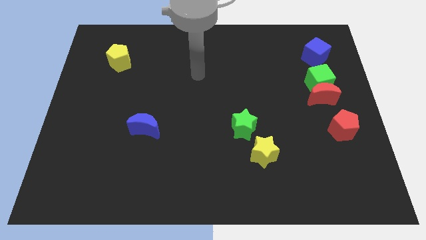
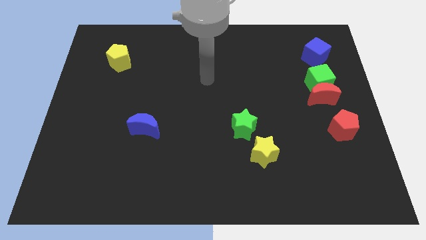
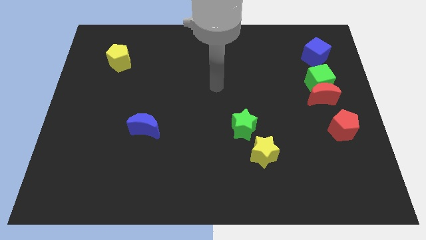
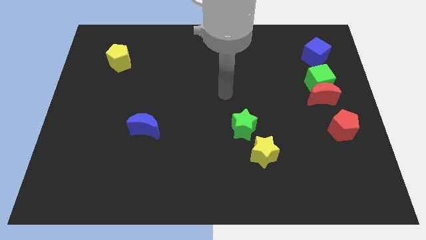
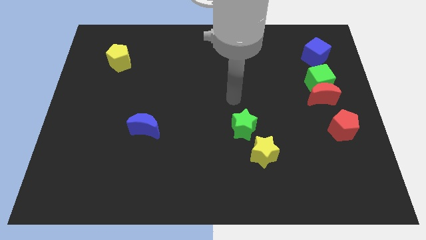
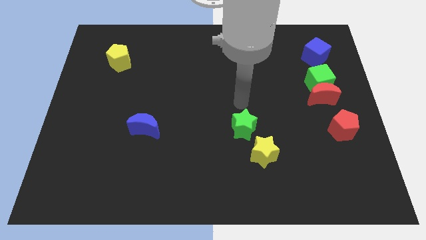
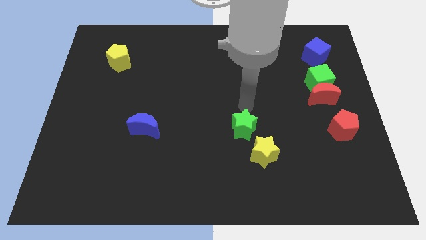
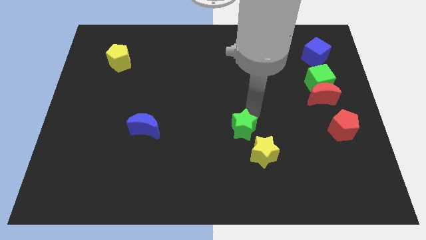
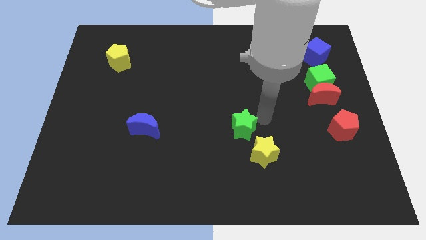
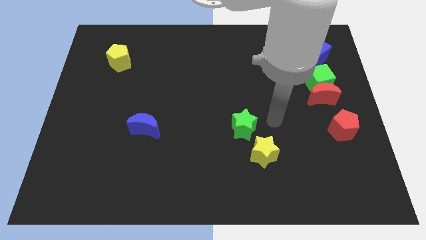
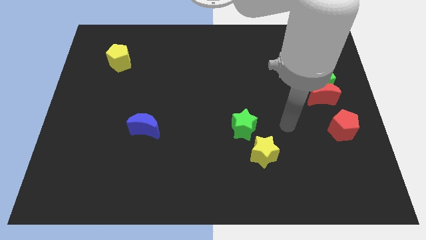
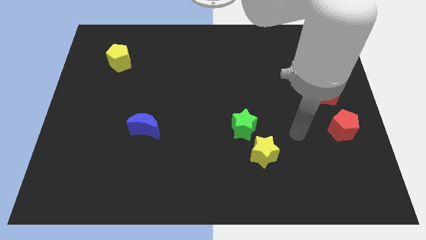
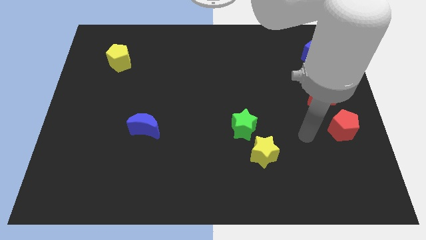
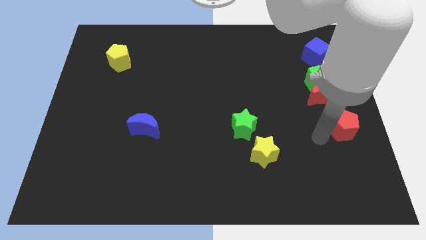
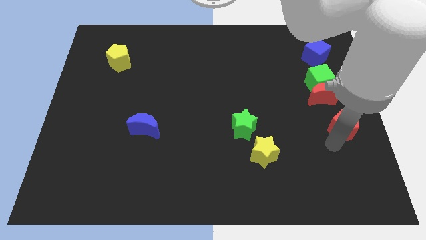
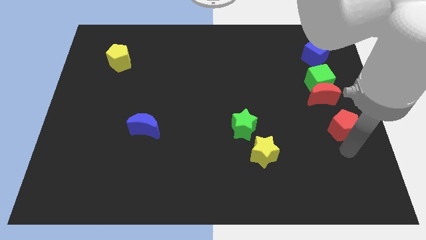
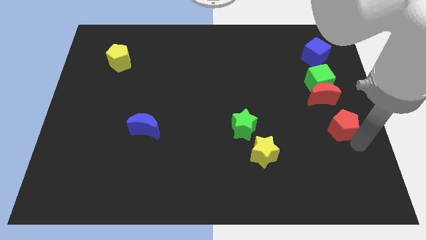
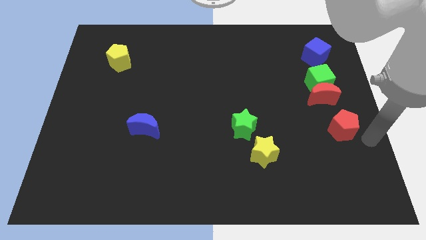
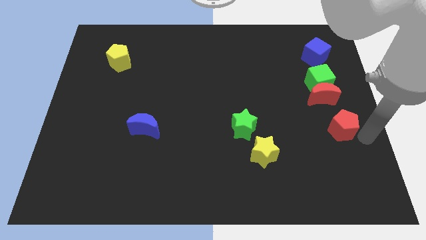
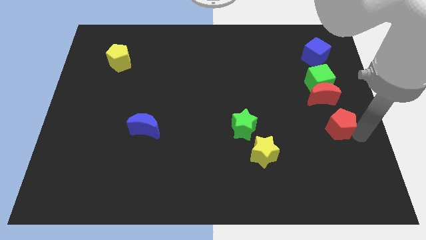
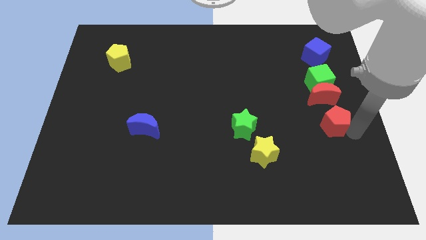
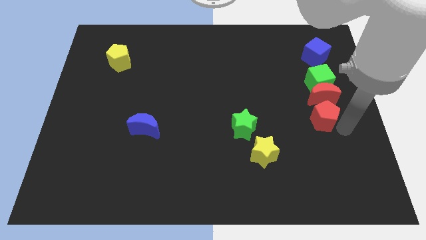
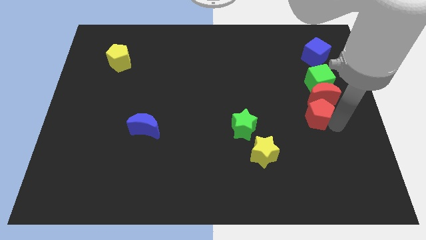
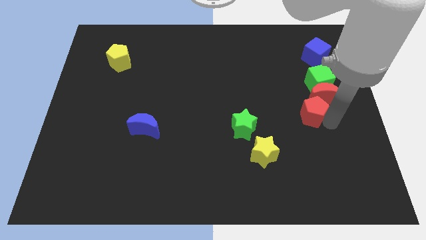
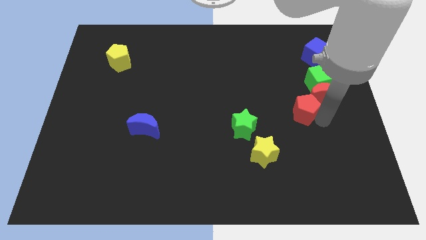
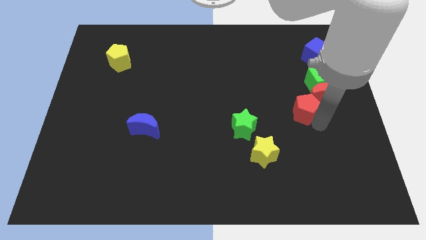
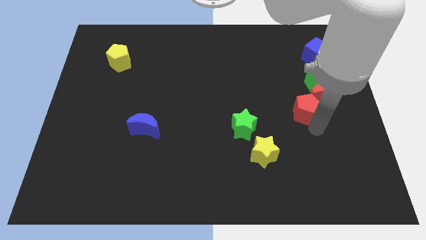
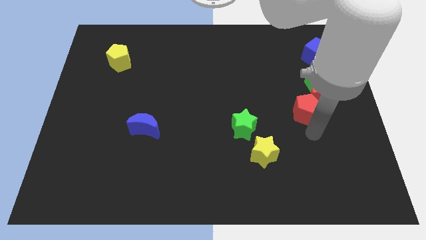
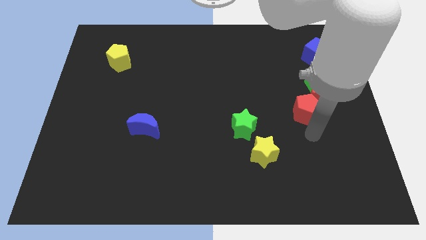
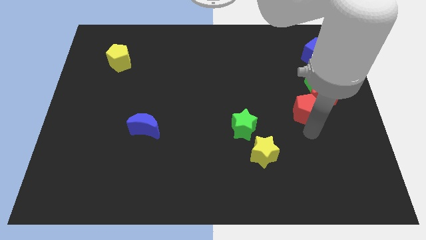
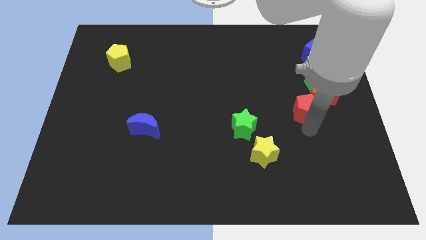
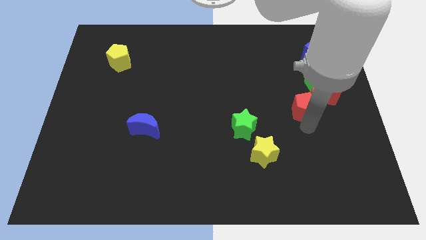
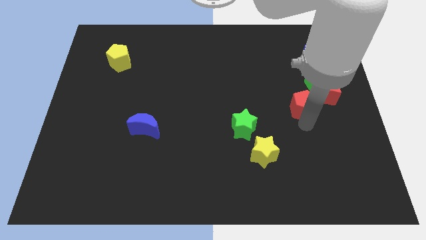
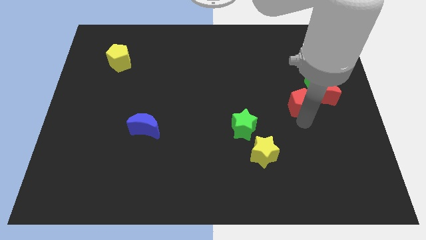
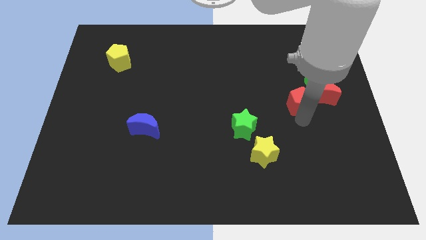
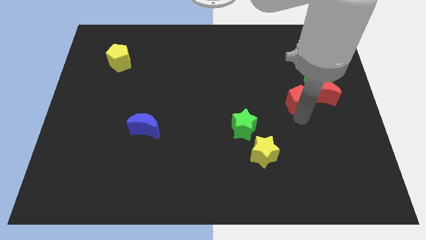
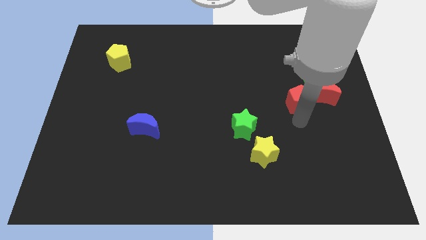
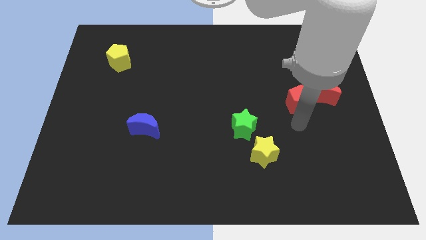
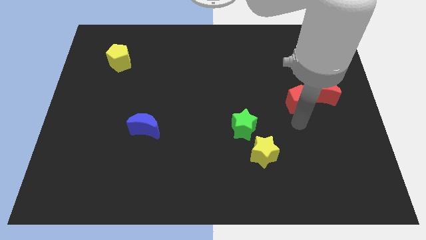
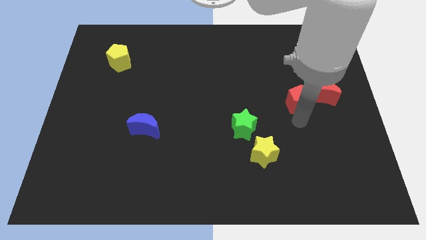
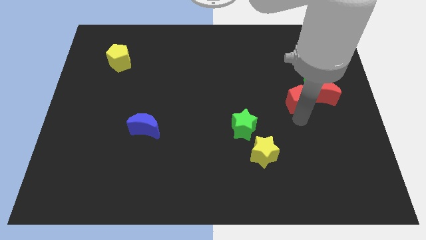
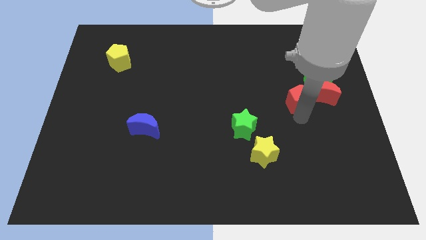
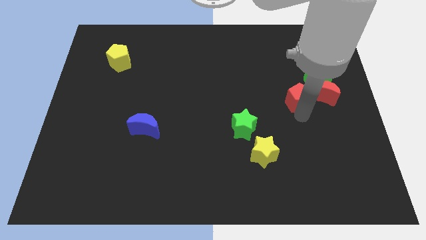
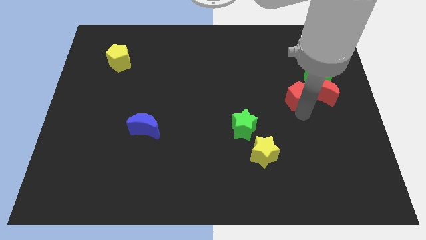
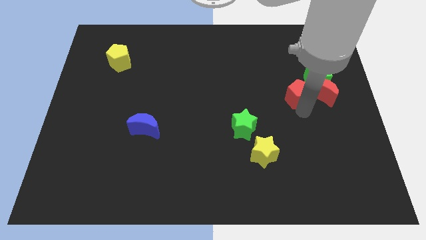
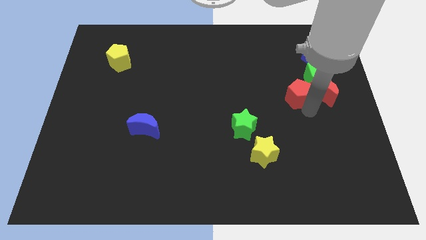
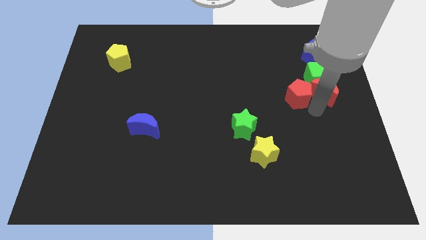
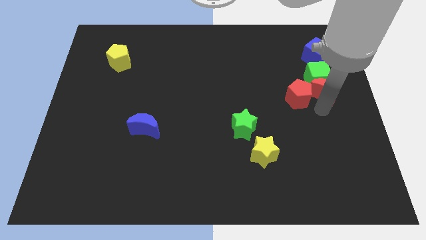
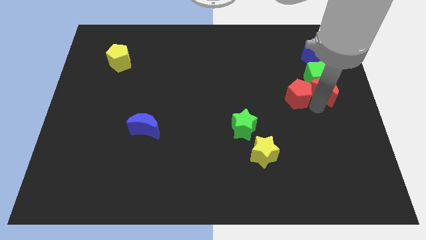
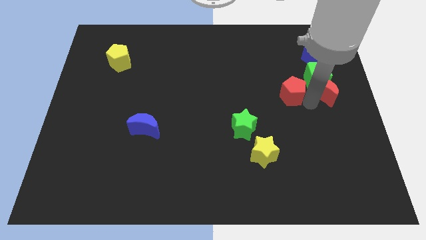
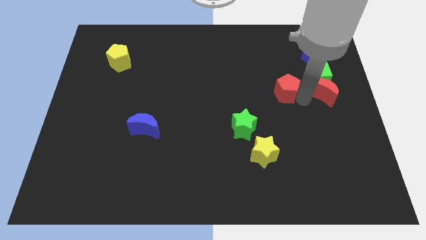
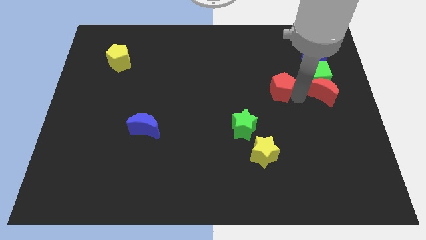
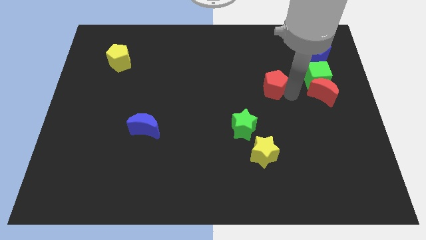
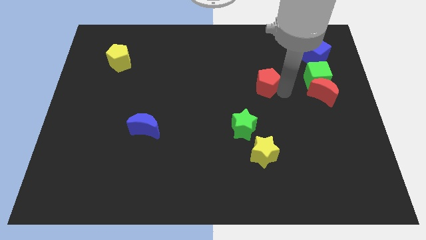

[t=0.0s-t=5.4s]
push the red pentagon upwards and left

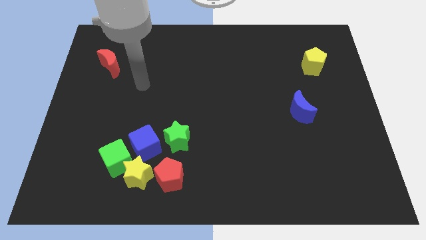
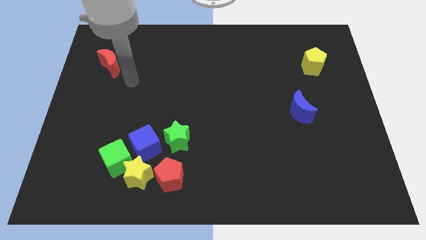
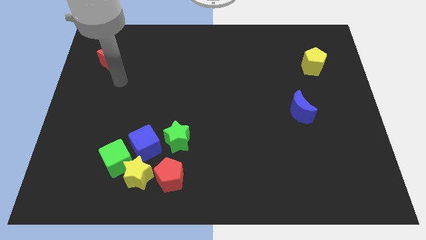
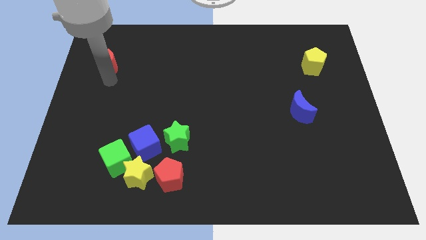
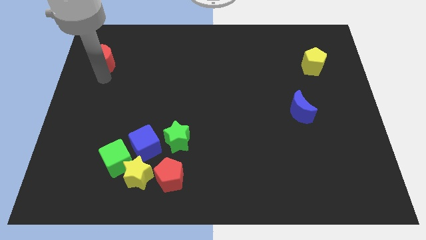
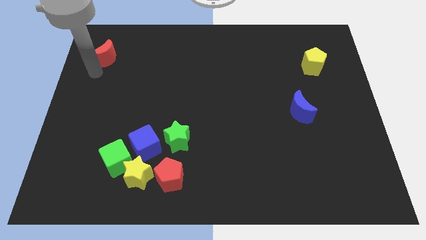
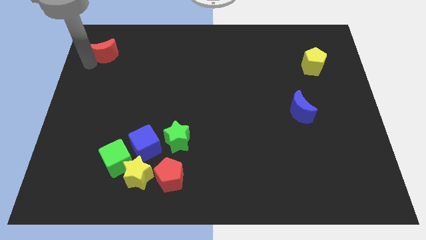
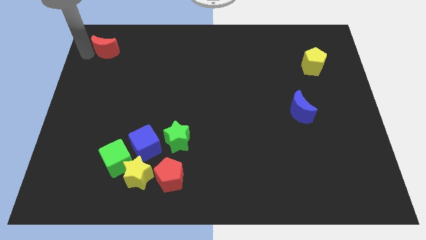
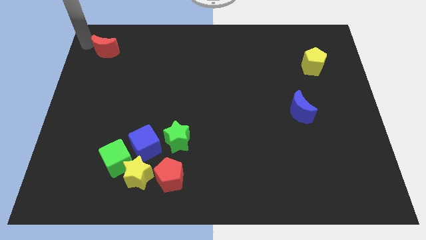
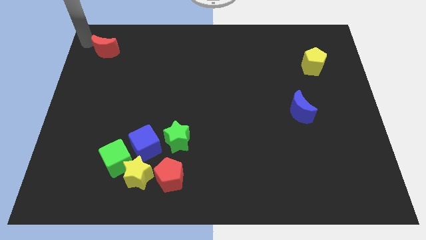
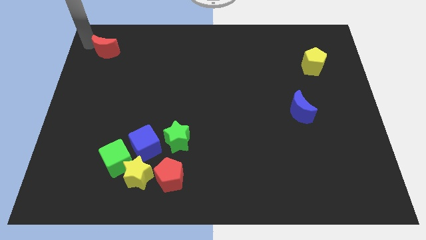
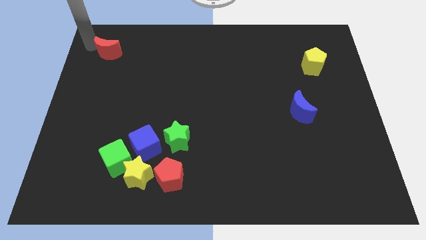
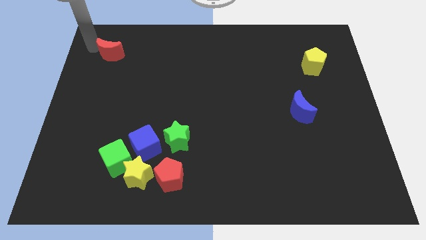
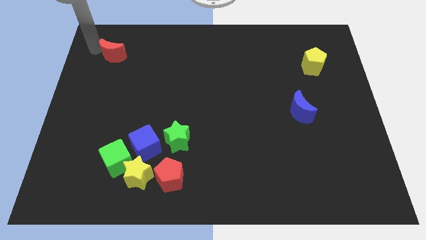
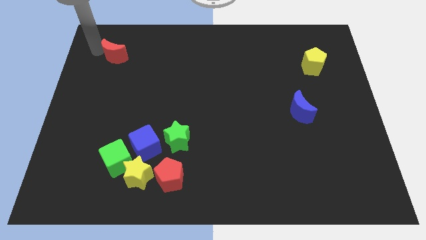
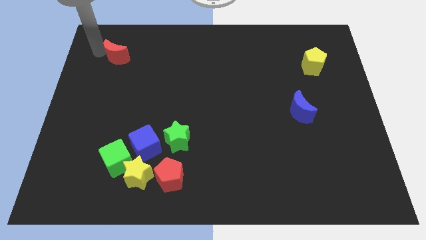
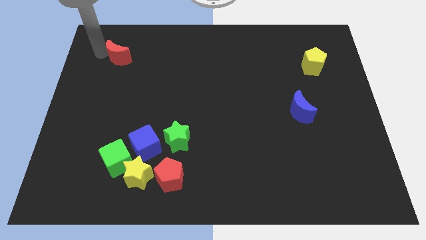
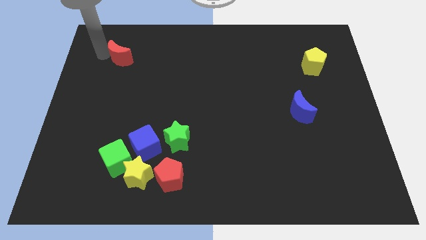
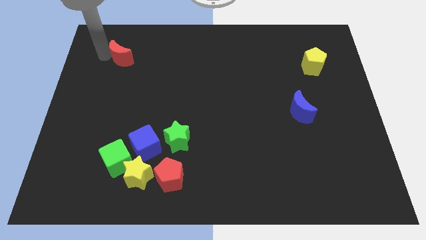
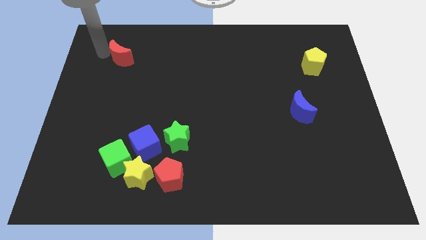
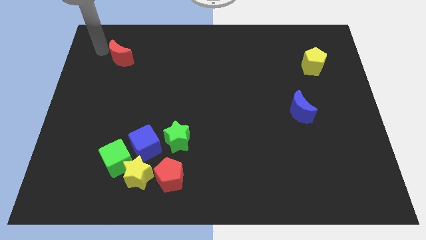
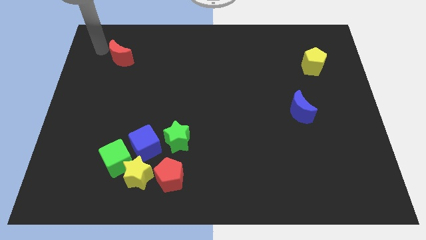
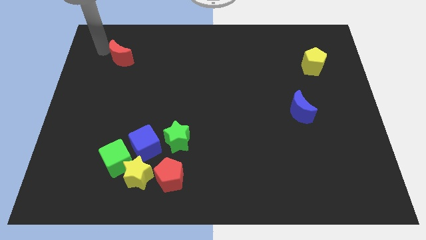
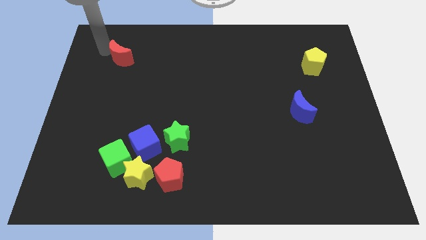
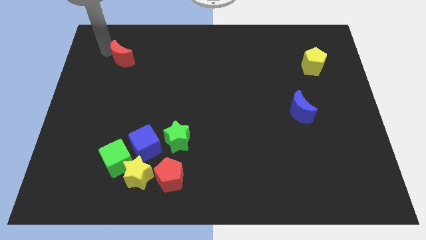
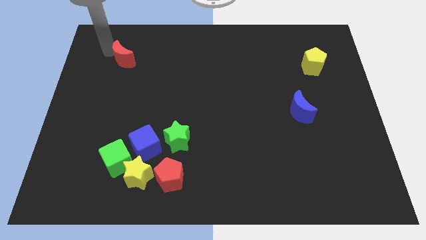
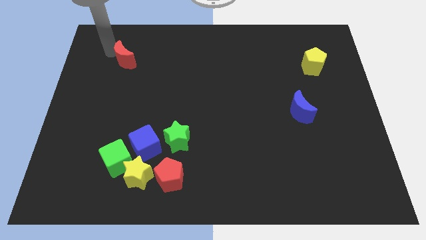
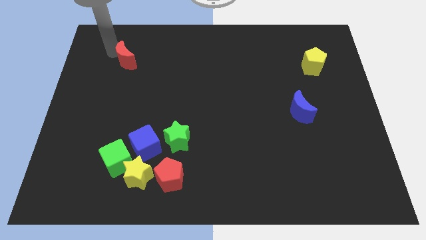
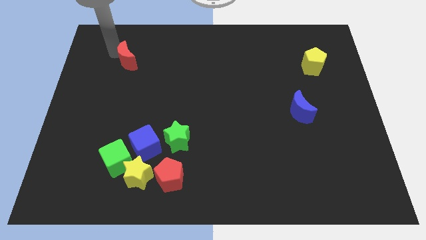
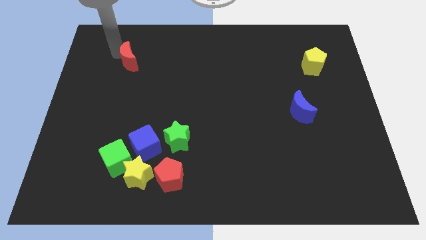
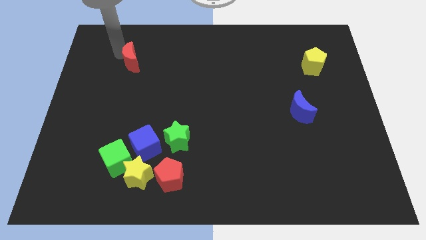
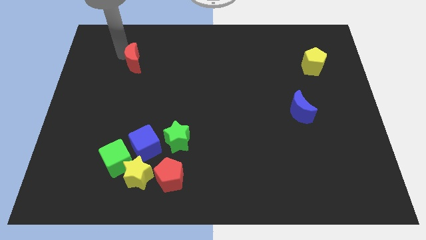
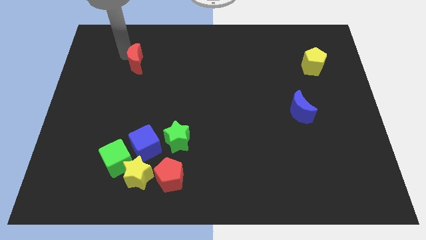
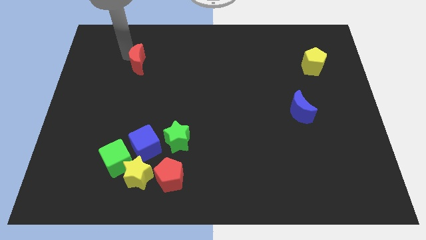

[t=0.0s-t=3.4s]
move the red moon right a little
